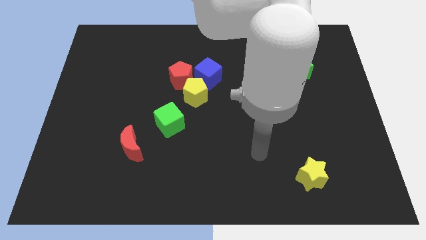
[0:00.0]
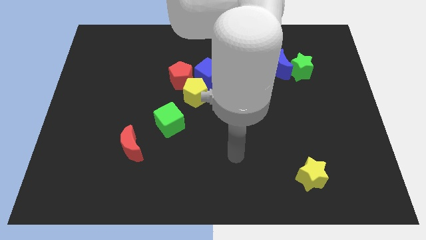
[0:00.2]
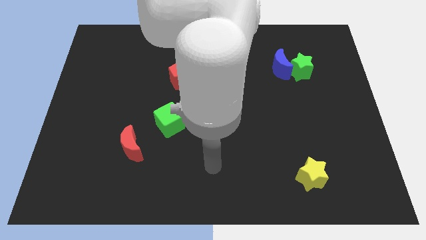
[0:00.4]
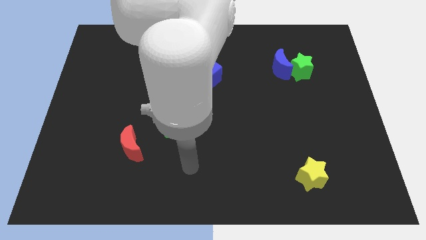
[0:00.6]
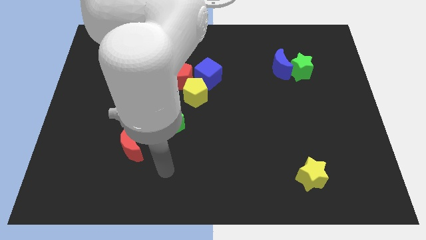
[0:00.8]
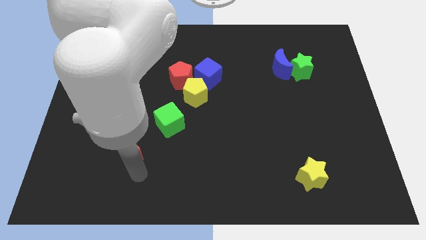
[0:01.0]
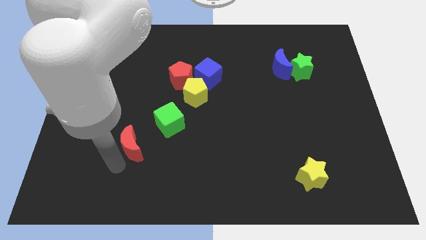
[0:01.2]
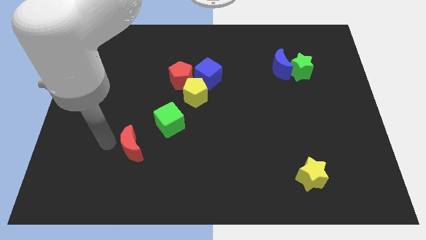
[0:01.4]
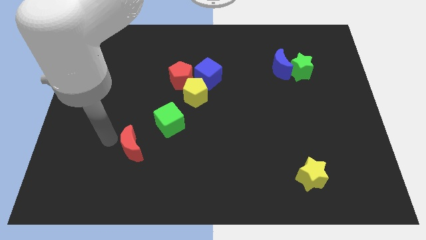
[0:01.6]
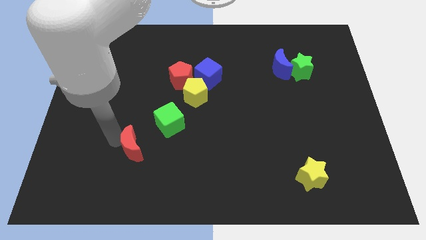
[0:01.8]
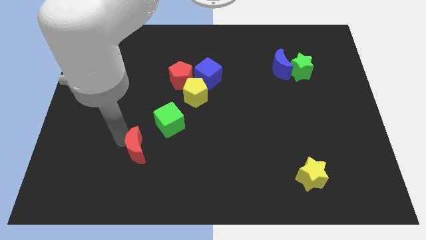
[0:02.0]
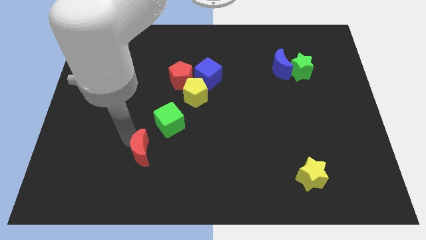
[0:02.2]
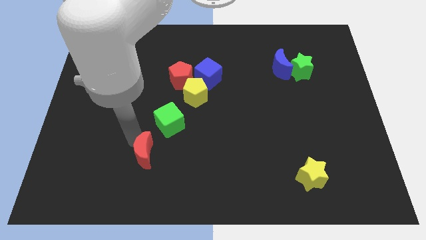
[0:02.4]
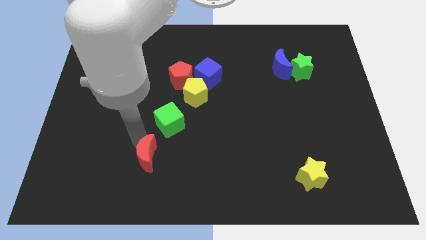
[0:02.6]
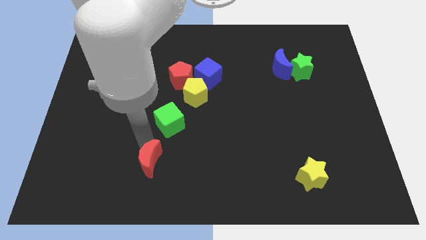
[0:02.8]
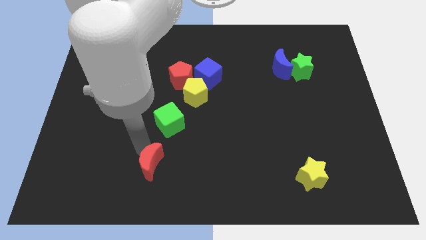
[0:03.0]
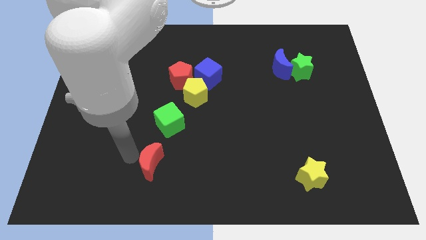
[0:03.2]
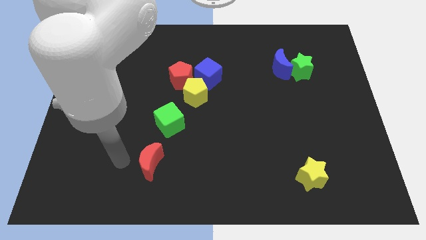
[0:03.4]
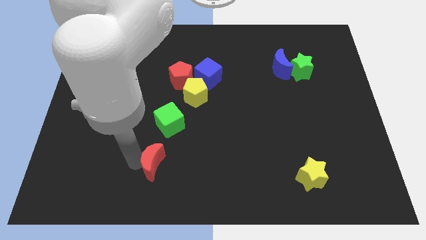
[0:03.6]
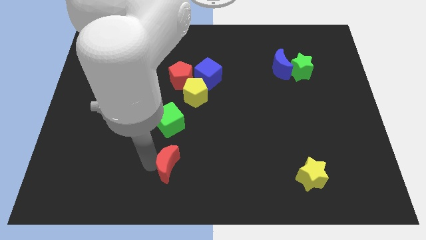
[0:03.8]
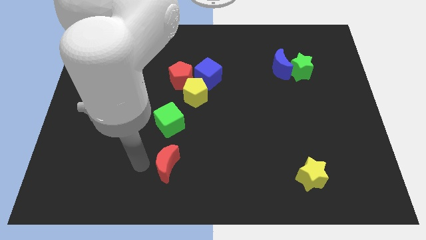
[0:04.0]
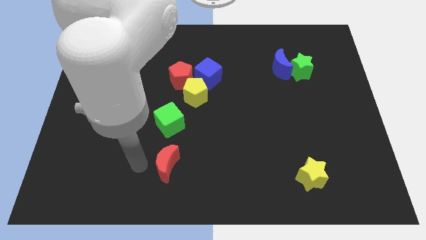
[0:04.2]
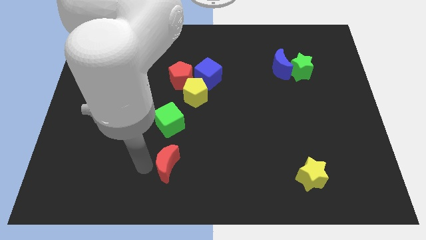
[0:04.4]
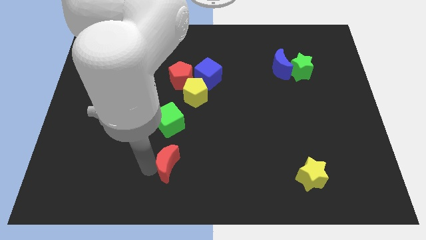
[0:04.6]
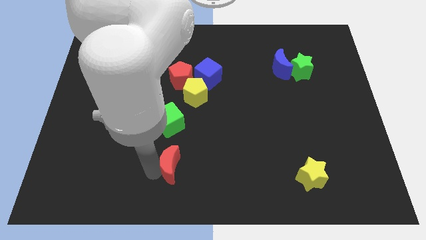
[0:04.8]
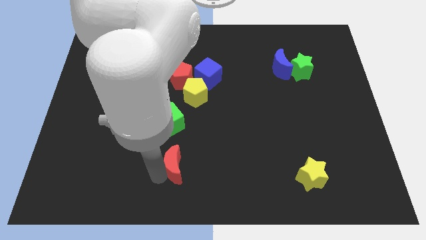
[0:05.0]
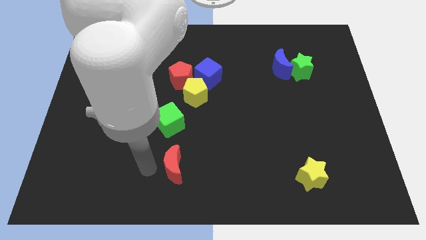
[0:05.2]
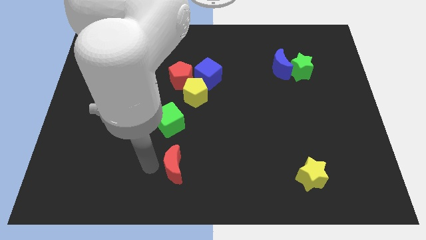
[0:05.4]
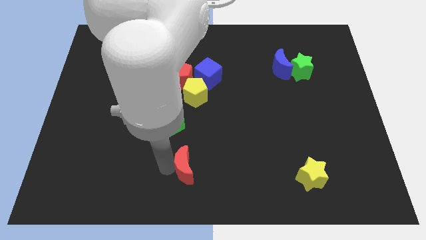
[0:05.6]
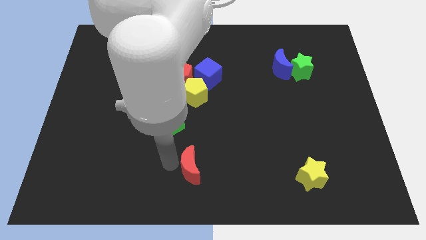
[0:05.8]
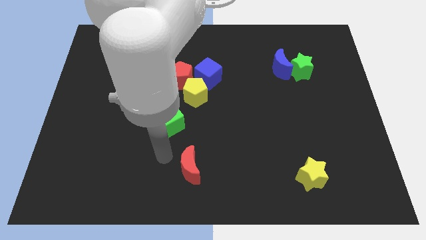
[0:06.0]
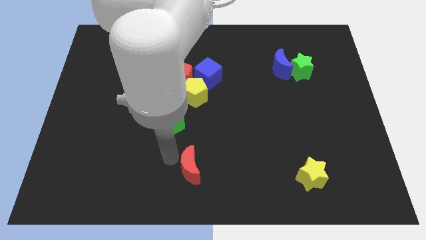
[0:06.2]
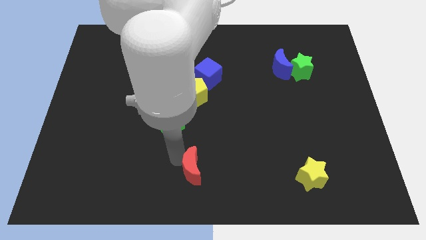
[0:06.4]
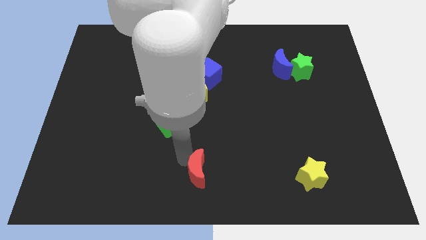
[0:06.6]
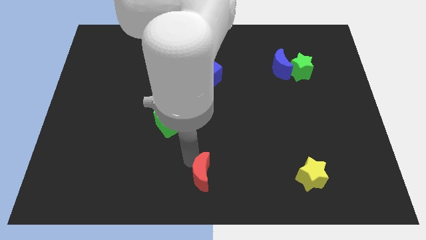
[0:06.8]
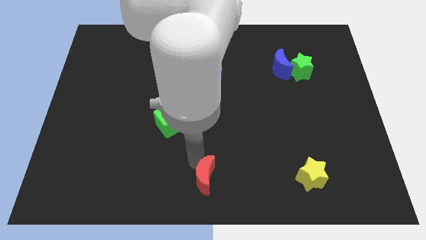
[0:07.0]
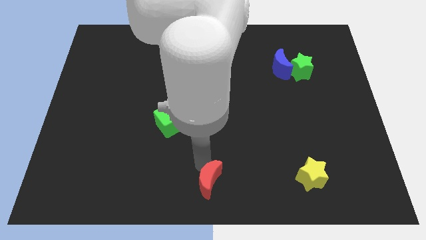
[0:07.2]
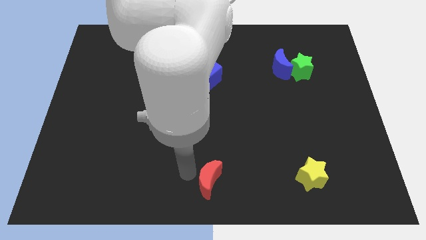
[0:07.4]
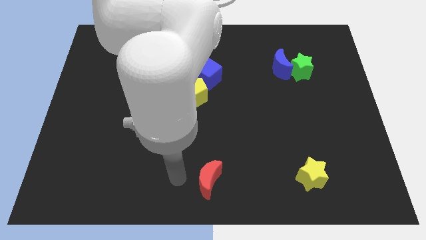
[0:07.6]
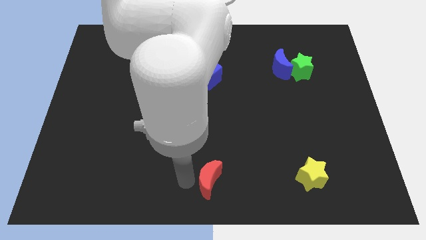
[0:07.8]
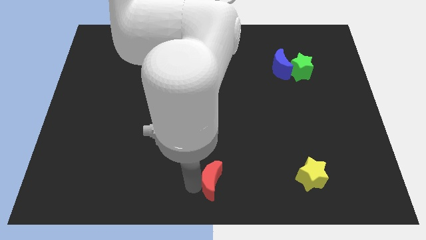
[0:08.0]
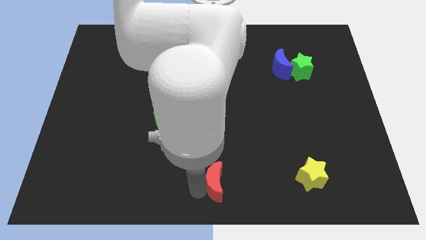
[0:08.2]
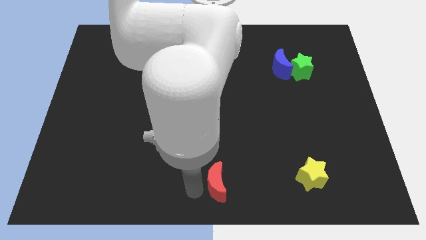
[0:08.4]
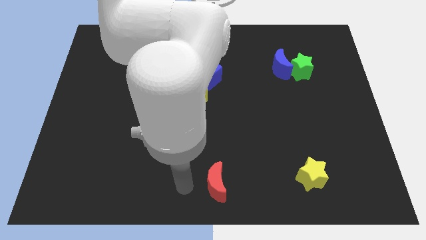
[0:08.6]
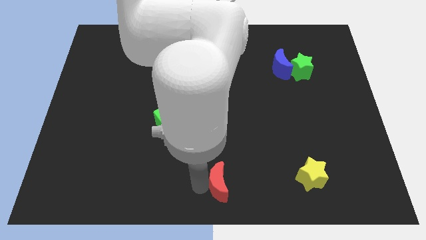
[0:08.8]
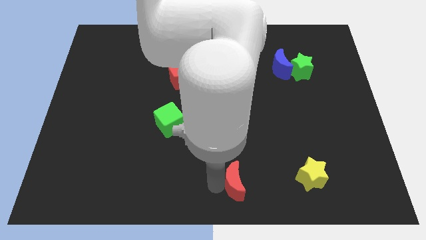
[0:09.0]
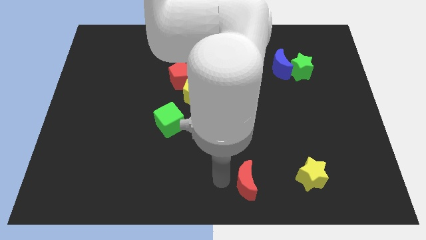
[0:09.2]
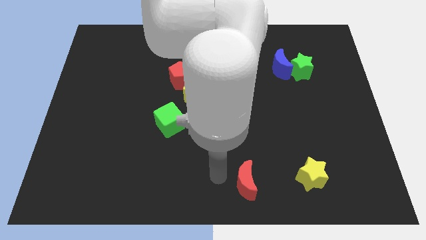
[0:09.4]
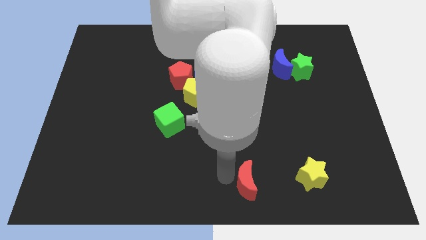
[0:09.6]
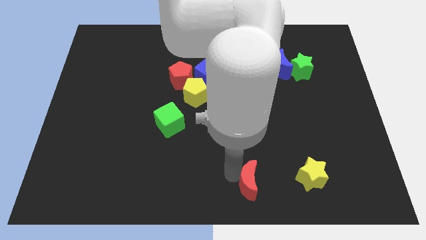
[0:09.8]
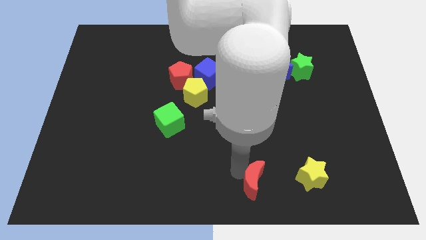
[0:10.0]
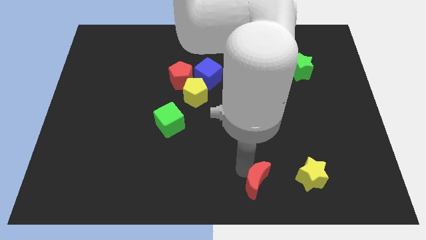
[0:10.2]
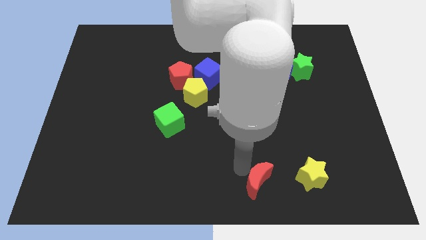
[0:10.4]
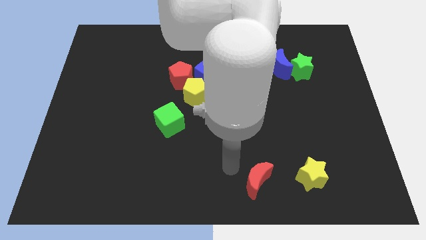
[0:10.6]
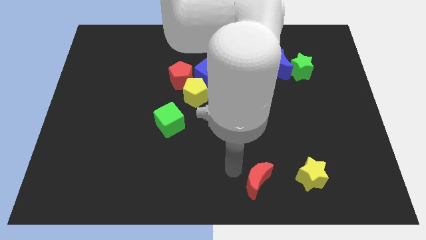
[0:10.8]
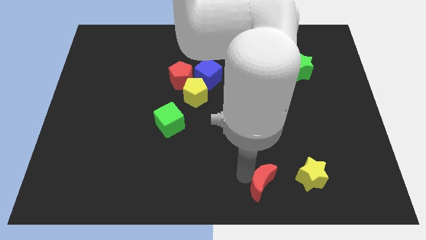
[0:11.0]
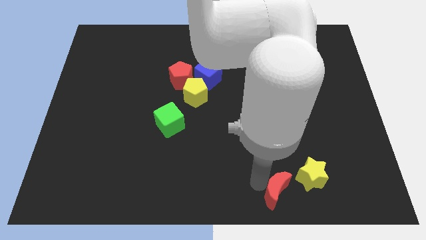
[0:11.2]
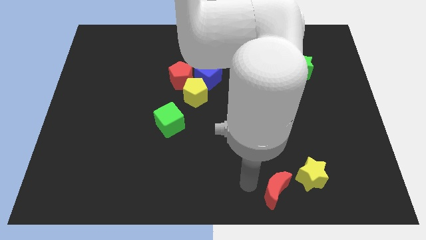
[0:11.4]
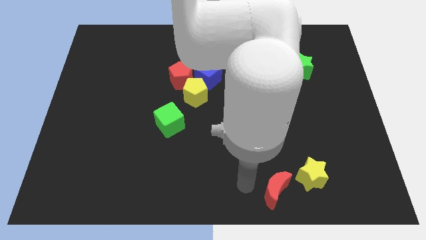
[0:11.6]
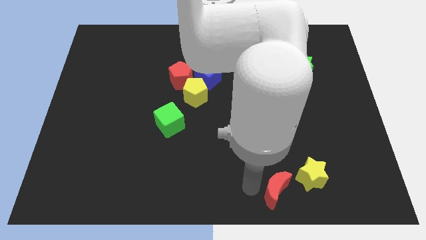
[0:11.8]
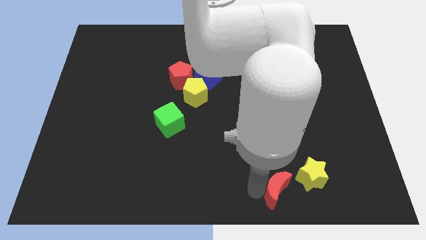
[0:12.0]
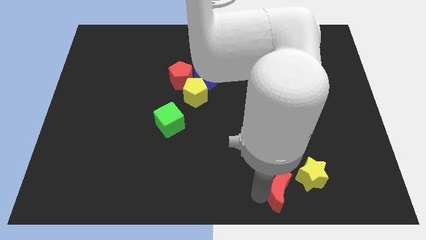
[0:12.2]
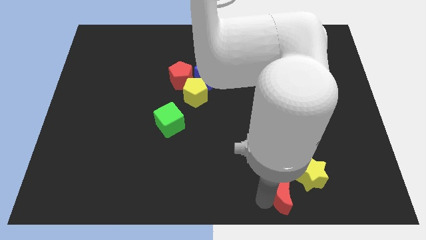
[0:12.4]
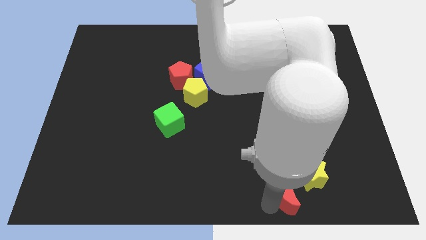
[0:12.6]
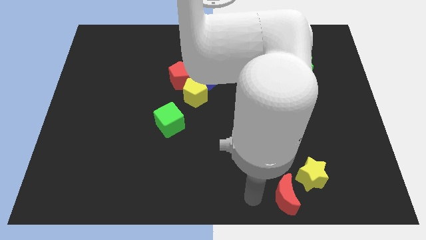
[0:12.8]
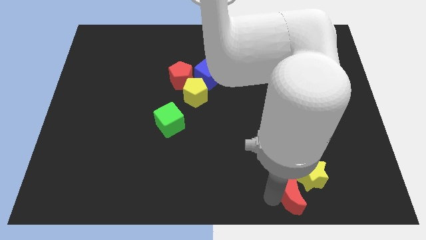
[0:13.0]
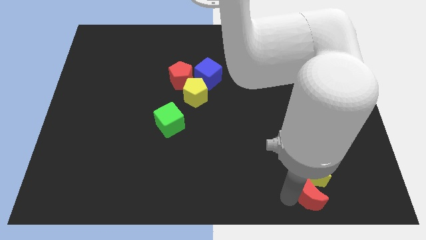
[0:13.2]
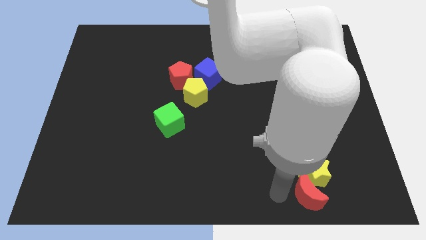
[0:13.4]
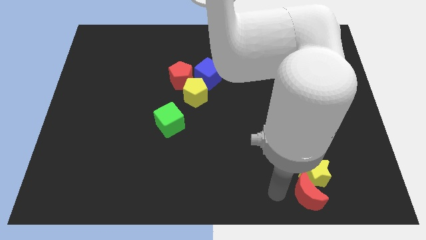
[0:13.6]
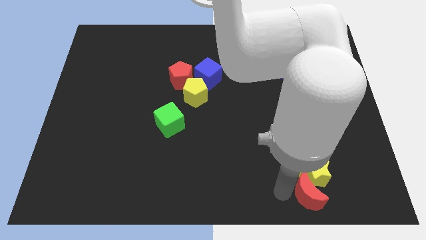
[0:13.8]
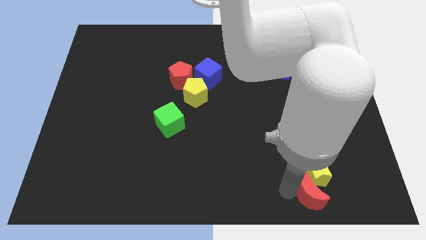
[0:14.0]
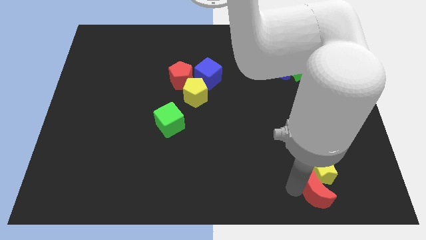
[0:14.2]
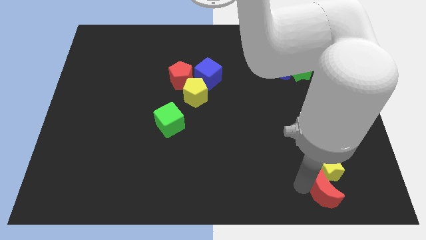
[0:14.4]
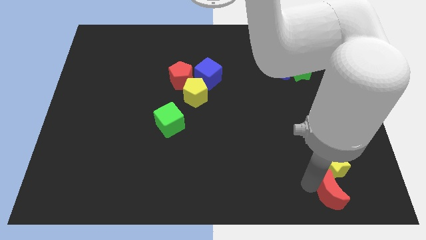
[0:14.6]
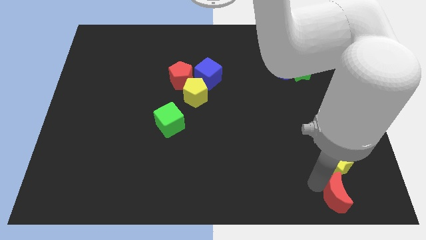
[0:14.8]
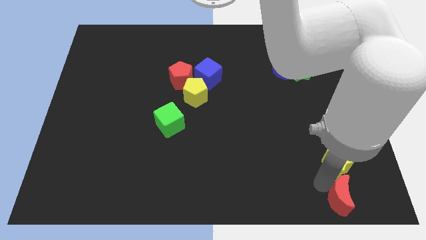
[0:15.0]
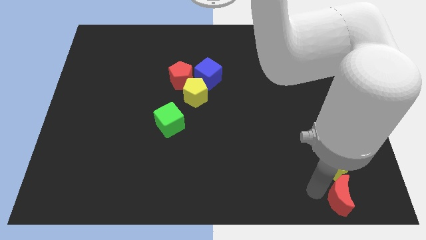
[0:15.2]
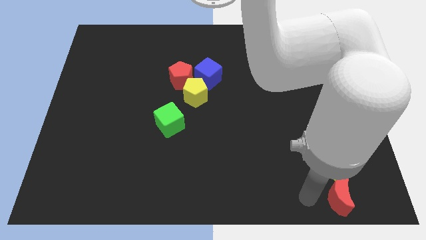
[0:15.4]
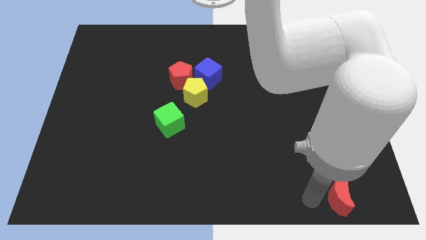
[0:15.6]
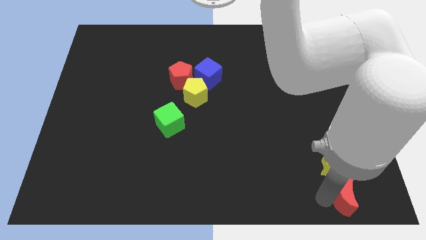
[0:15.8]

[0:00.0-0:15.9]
push the red moon to the bottom right
